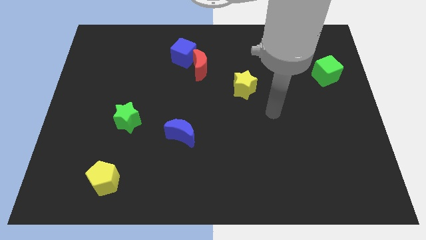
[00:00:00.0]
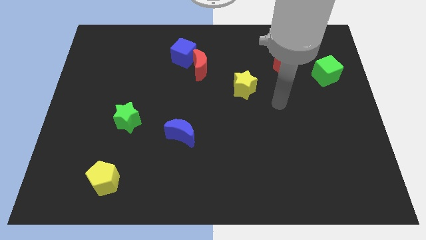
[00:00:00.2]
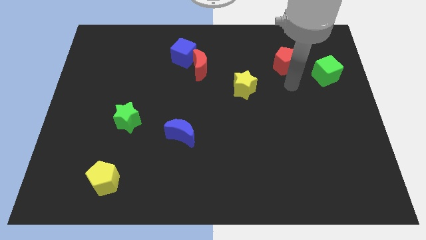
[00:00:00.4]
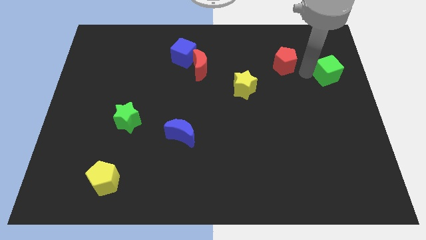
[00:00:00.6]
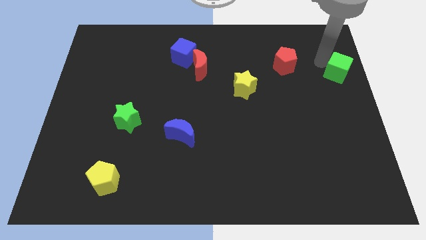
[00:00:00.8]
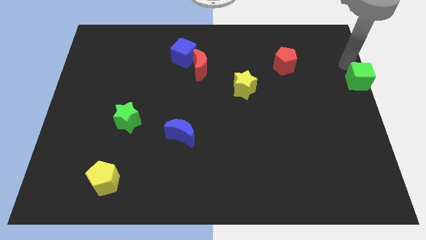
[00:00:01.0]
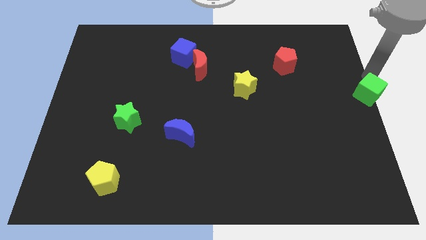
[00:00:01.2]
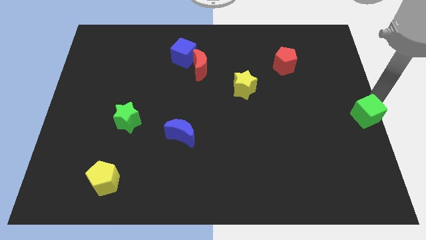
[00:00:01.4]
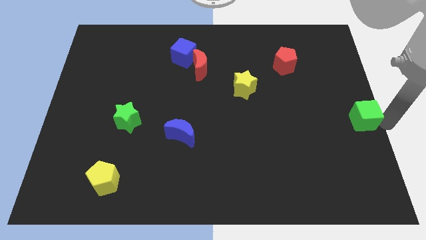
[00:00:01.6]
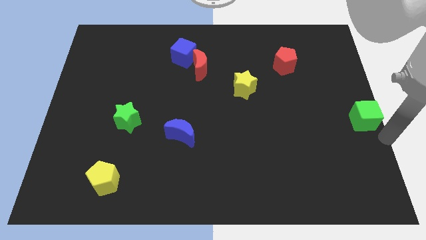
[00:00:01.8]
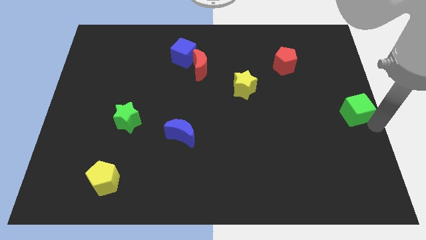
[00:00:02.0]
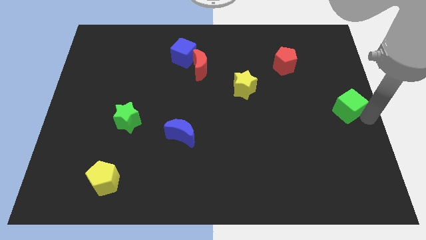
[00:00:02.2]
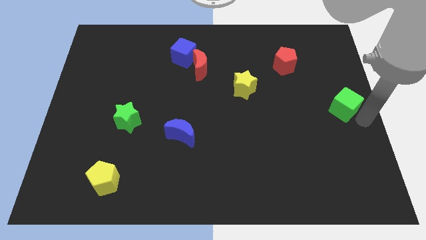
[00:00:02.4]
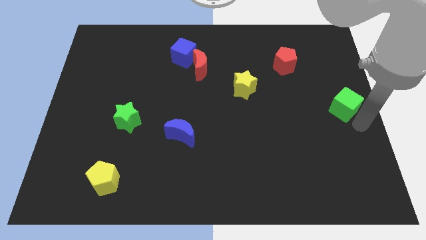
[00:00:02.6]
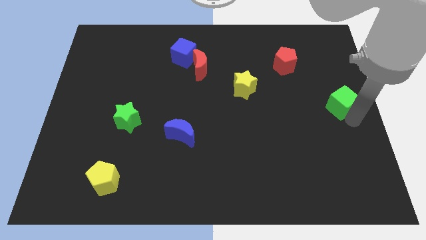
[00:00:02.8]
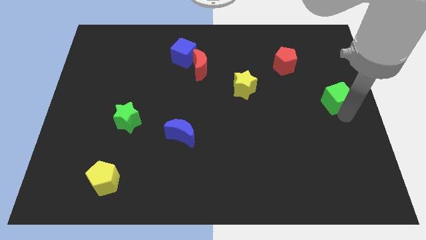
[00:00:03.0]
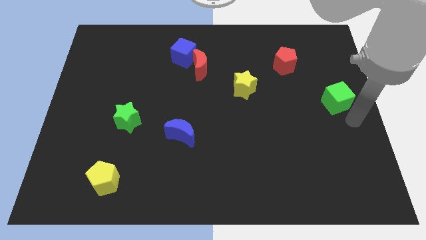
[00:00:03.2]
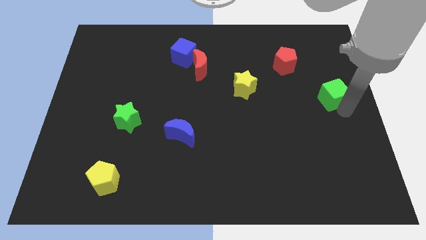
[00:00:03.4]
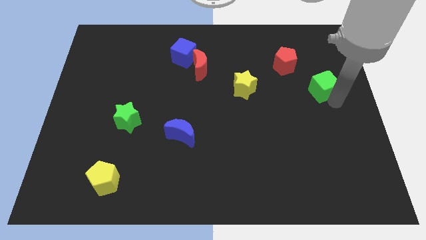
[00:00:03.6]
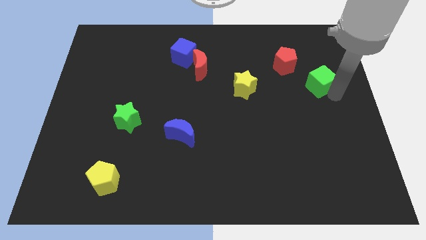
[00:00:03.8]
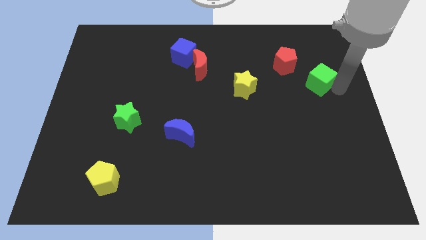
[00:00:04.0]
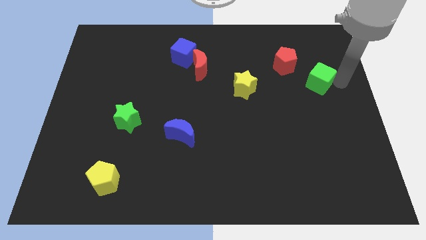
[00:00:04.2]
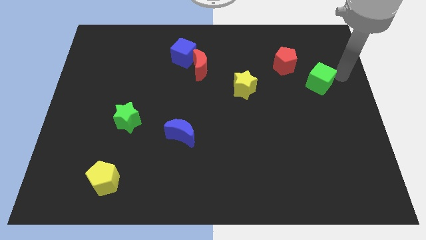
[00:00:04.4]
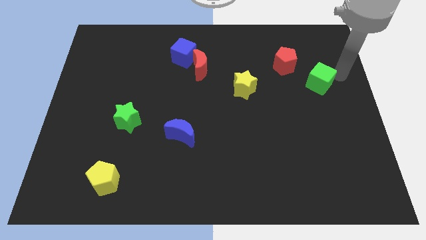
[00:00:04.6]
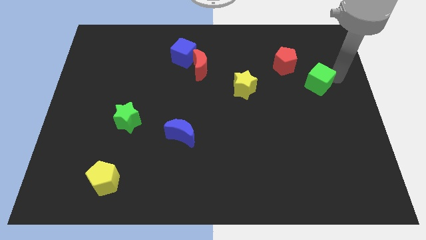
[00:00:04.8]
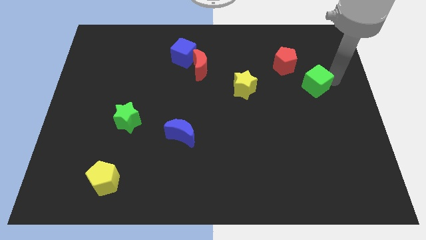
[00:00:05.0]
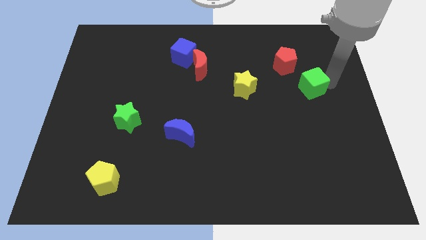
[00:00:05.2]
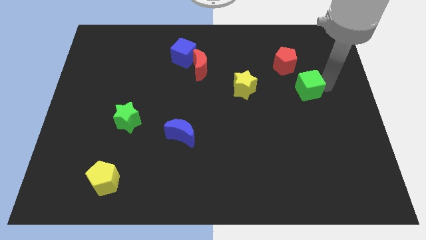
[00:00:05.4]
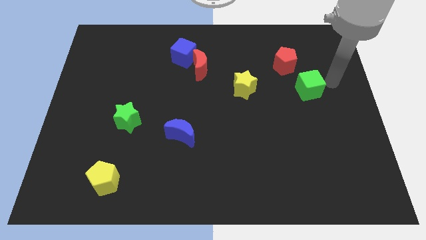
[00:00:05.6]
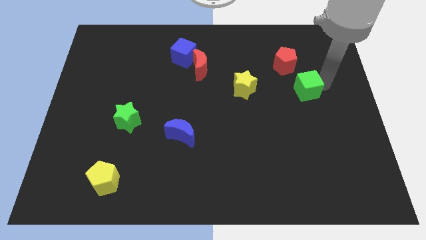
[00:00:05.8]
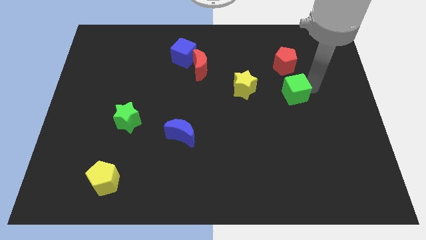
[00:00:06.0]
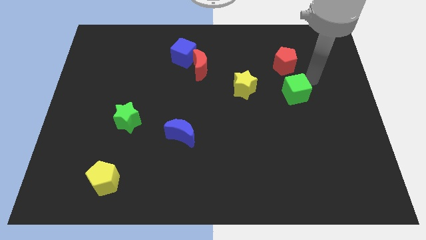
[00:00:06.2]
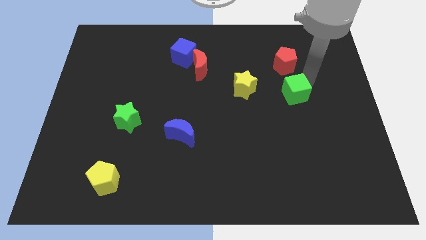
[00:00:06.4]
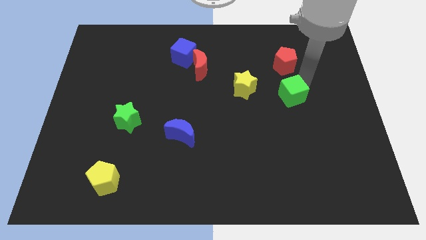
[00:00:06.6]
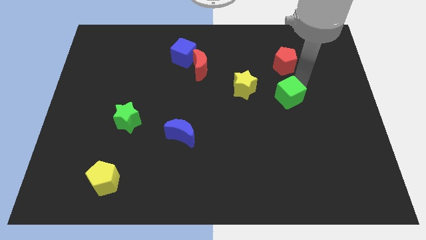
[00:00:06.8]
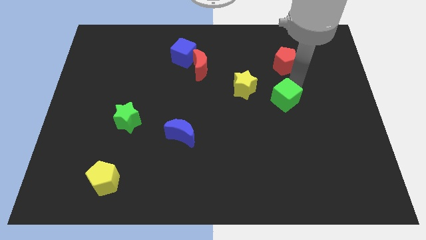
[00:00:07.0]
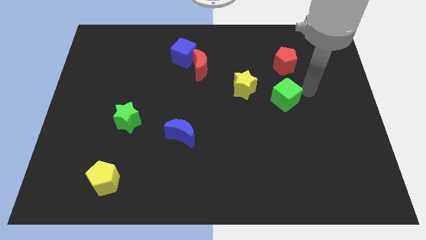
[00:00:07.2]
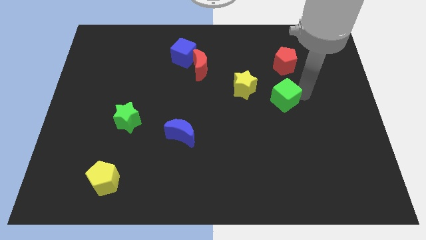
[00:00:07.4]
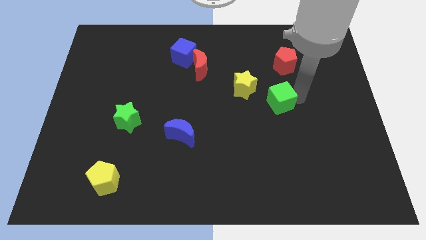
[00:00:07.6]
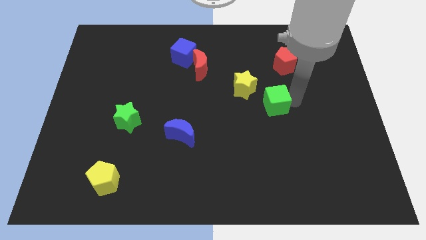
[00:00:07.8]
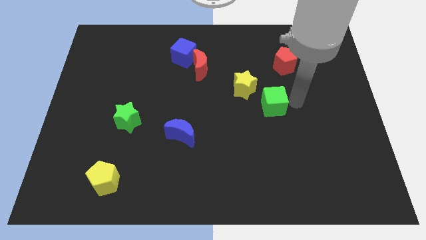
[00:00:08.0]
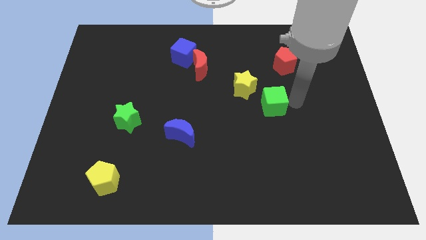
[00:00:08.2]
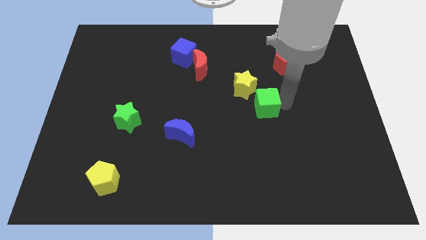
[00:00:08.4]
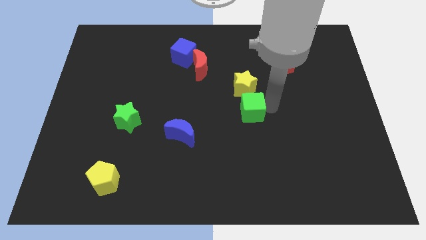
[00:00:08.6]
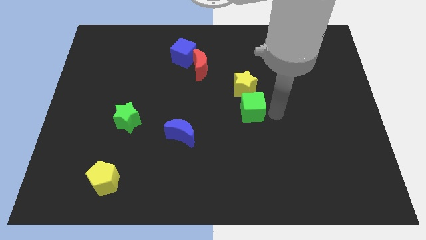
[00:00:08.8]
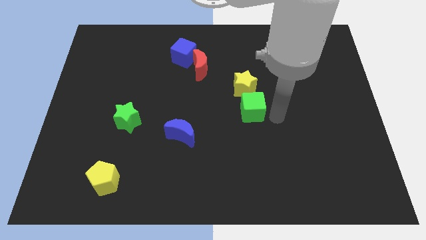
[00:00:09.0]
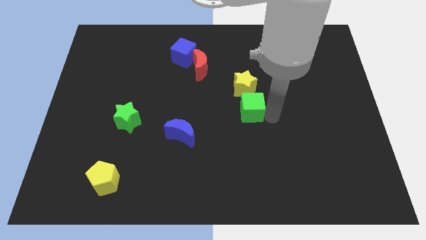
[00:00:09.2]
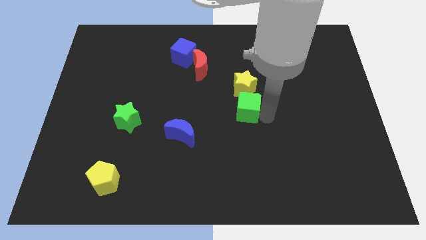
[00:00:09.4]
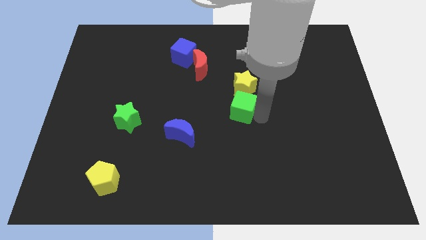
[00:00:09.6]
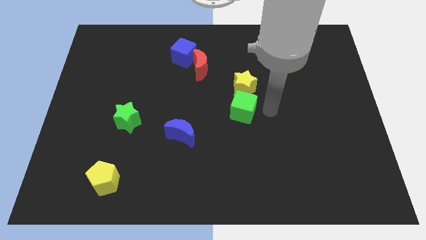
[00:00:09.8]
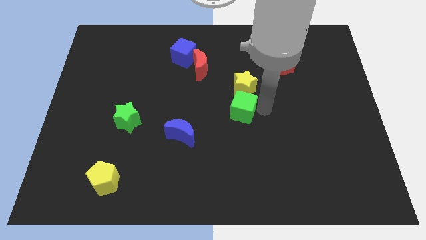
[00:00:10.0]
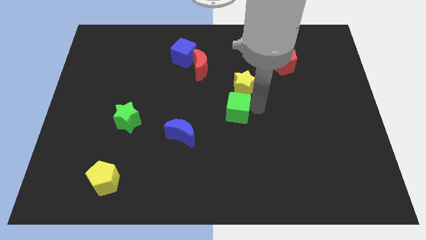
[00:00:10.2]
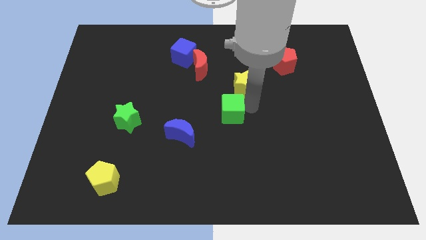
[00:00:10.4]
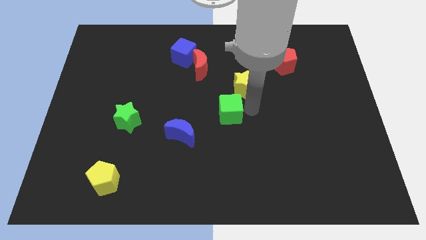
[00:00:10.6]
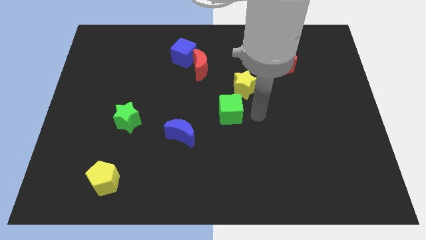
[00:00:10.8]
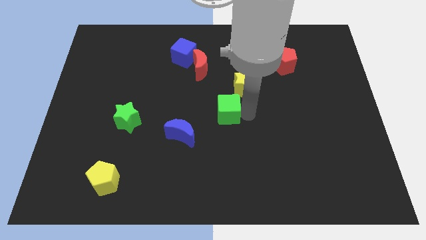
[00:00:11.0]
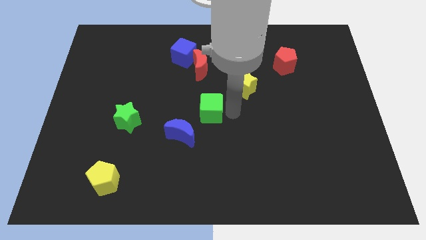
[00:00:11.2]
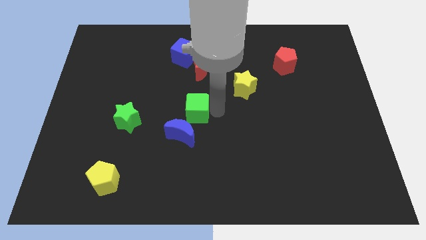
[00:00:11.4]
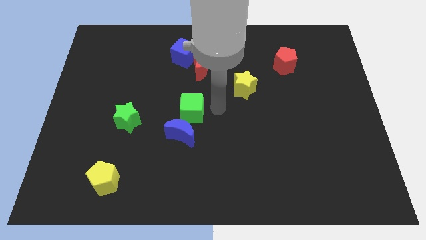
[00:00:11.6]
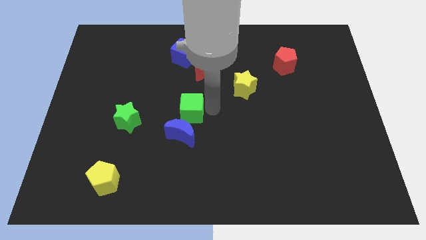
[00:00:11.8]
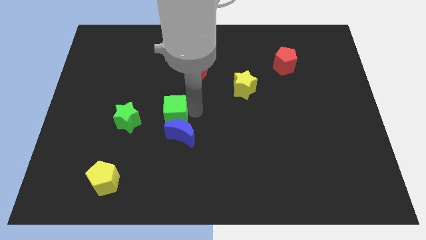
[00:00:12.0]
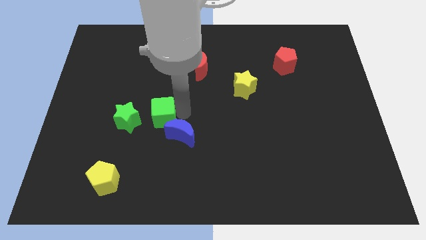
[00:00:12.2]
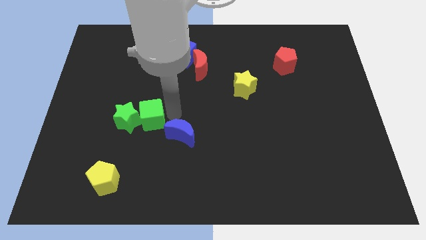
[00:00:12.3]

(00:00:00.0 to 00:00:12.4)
slide the green cube towards the green star
